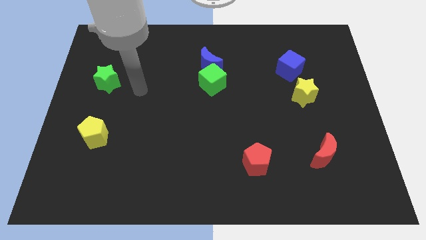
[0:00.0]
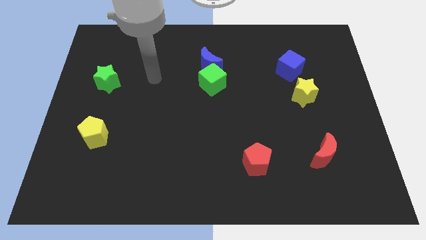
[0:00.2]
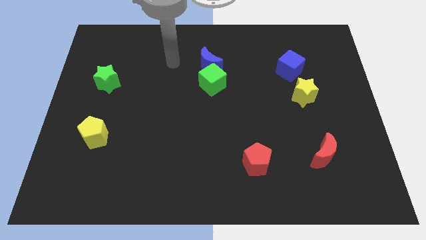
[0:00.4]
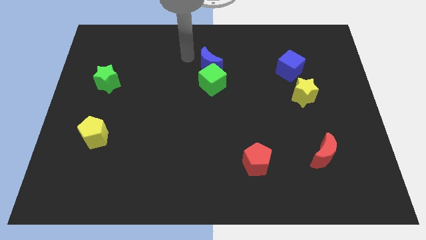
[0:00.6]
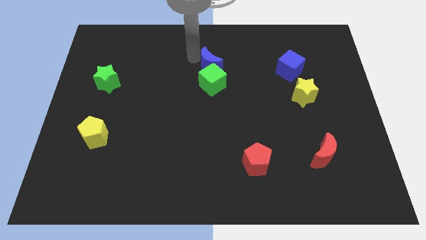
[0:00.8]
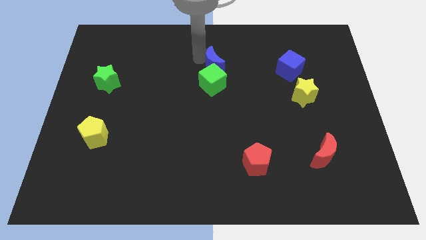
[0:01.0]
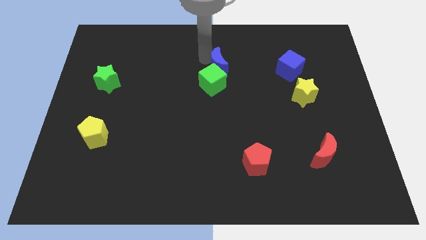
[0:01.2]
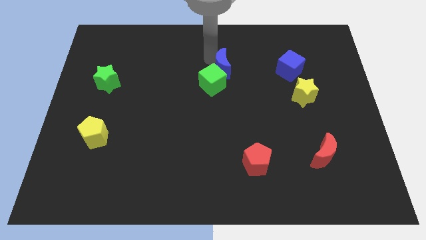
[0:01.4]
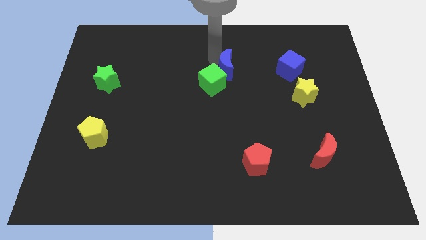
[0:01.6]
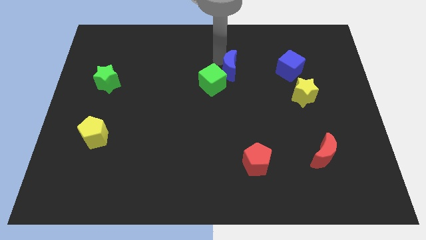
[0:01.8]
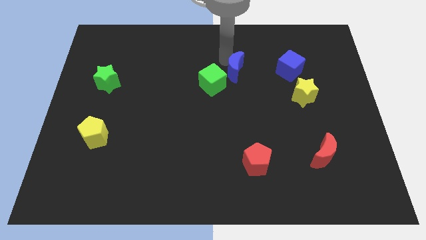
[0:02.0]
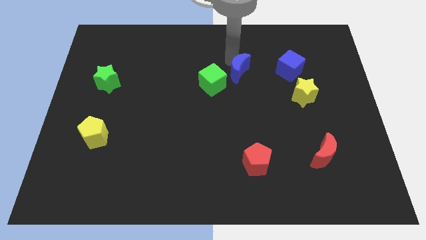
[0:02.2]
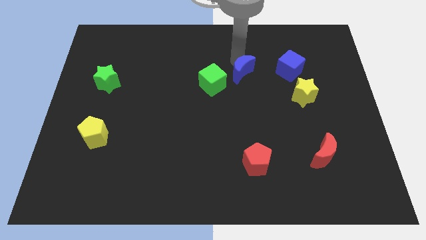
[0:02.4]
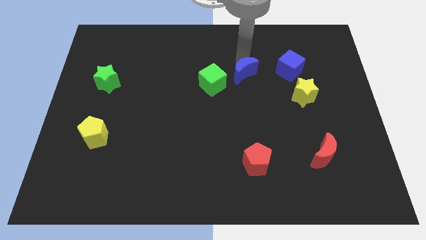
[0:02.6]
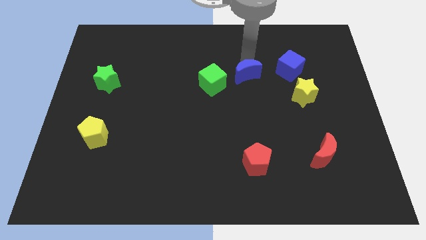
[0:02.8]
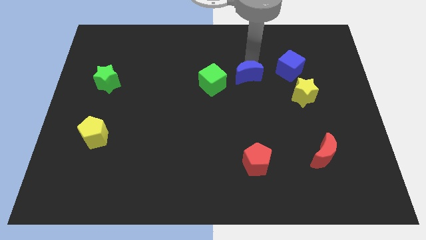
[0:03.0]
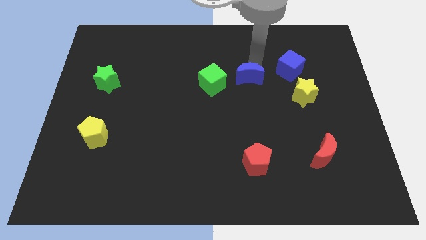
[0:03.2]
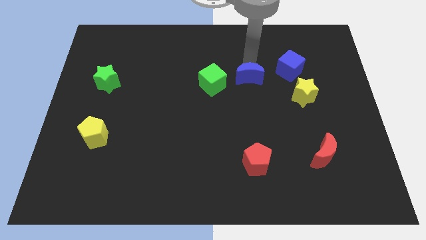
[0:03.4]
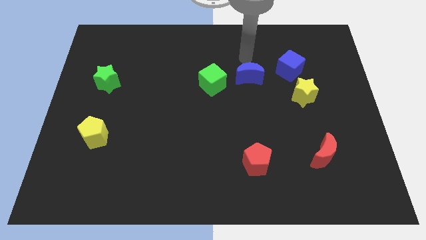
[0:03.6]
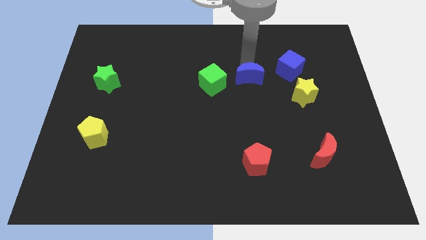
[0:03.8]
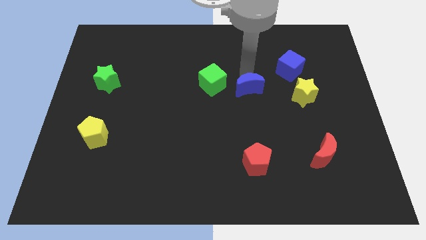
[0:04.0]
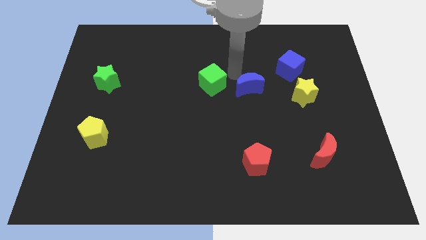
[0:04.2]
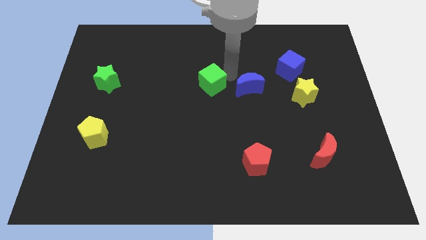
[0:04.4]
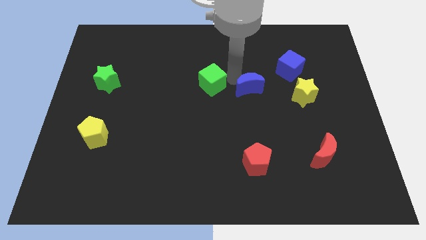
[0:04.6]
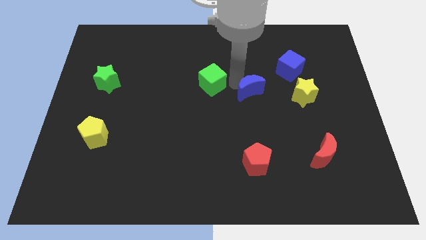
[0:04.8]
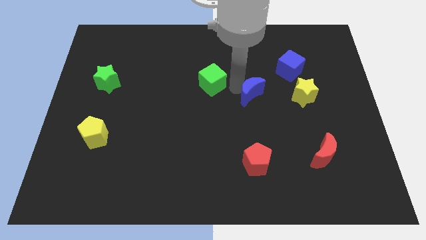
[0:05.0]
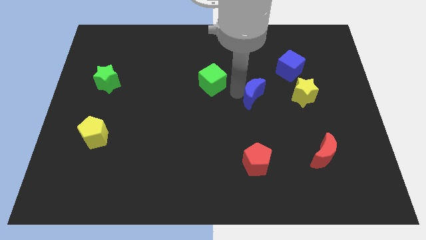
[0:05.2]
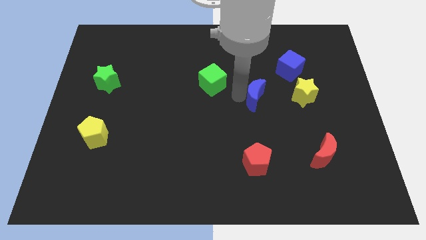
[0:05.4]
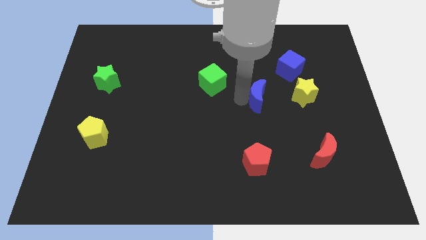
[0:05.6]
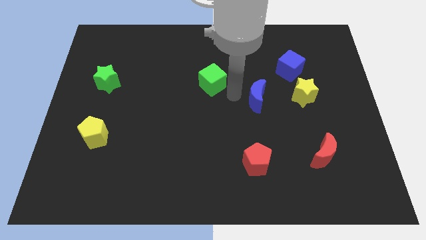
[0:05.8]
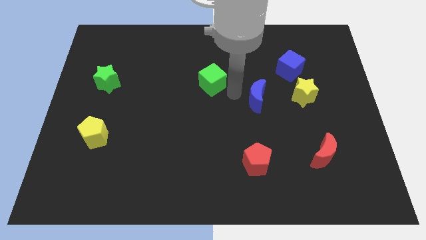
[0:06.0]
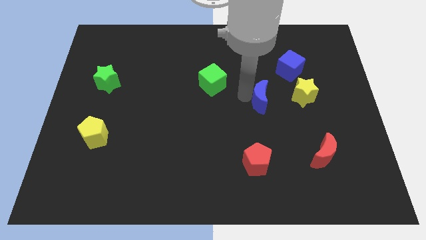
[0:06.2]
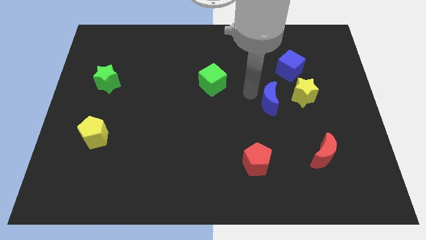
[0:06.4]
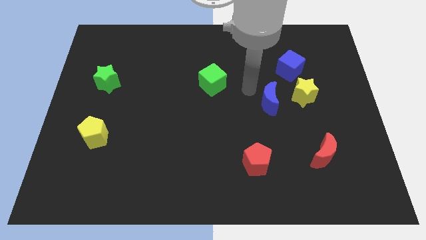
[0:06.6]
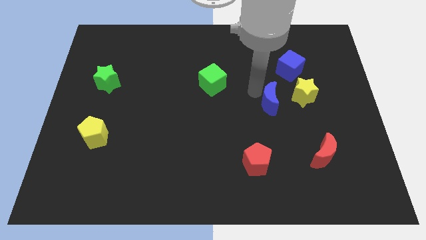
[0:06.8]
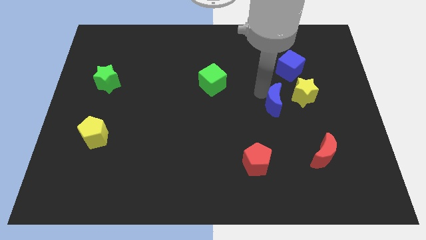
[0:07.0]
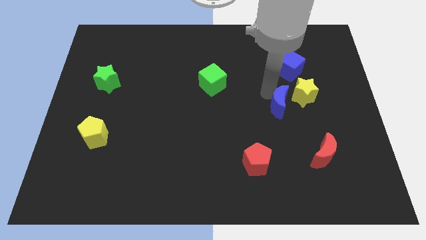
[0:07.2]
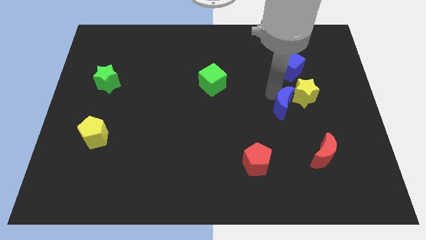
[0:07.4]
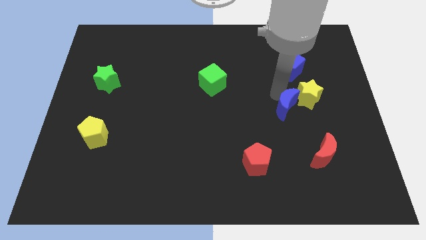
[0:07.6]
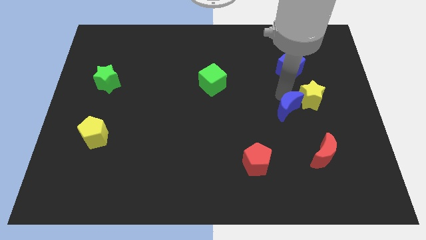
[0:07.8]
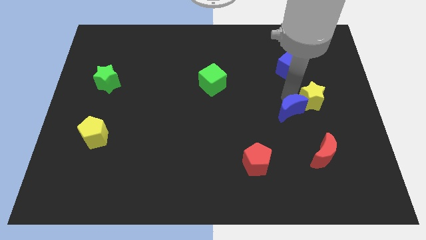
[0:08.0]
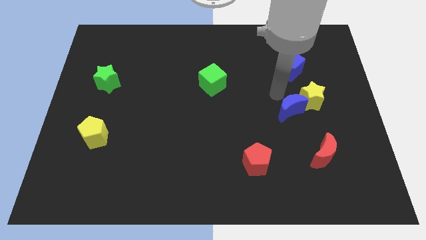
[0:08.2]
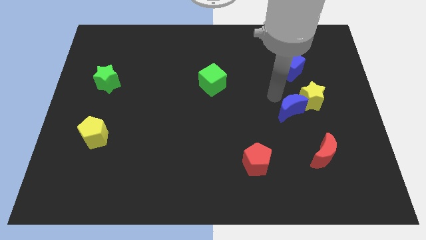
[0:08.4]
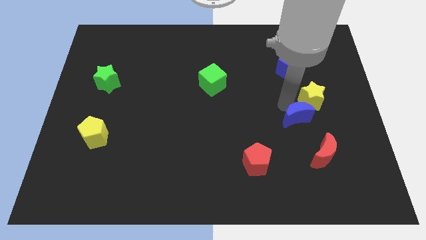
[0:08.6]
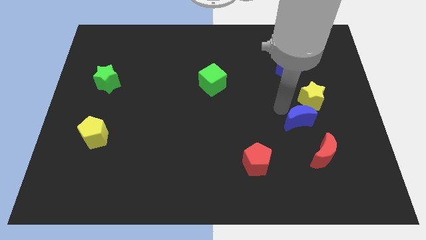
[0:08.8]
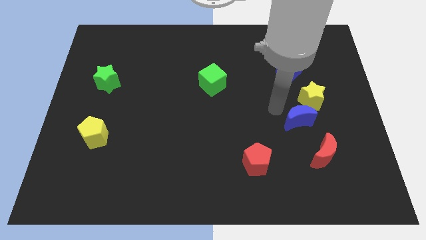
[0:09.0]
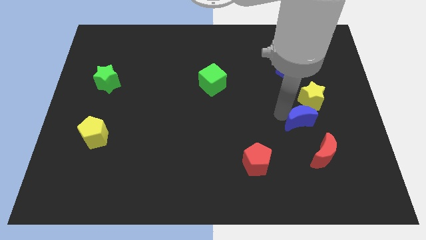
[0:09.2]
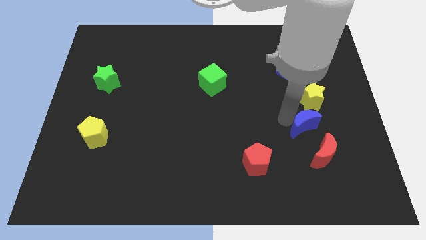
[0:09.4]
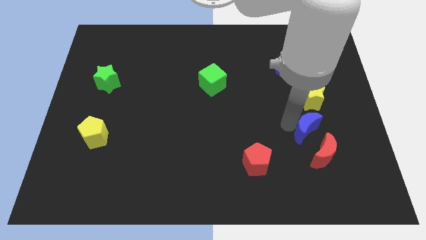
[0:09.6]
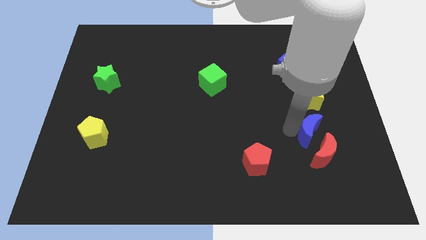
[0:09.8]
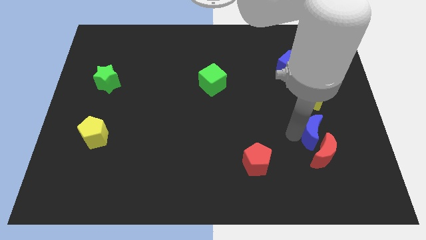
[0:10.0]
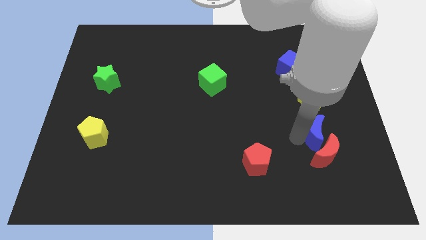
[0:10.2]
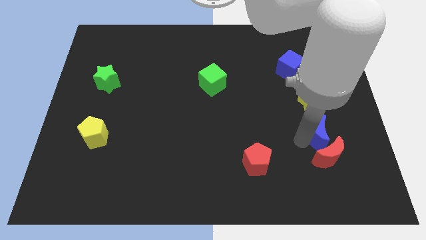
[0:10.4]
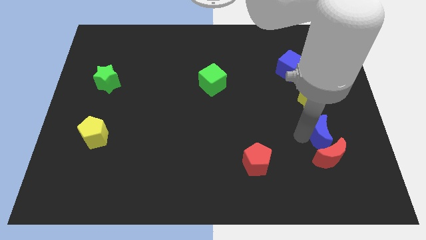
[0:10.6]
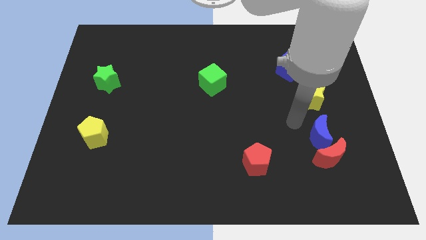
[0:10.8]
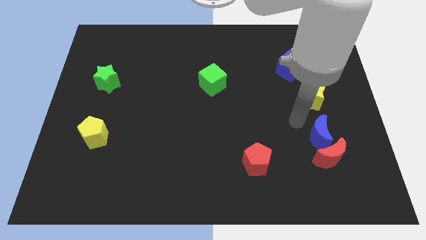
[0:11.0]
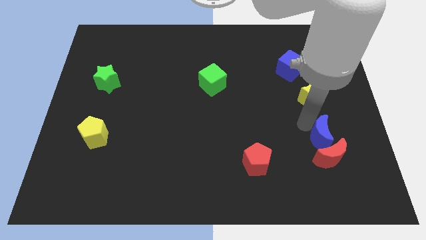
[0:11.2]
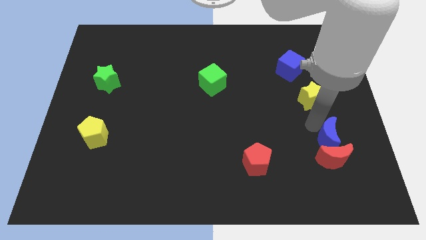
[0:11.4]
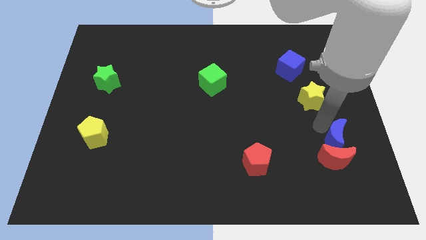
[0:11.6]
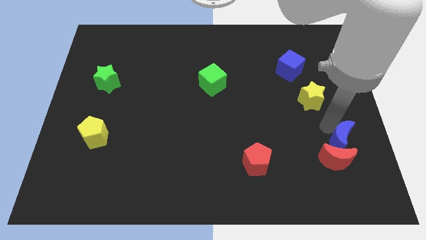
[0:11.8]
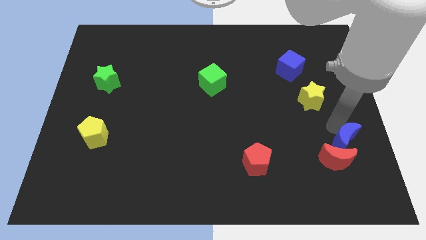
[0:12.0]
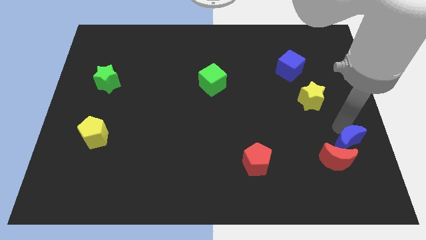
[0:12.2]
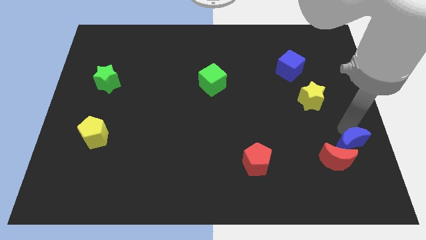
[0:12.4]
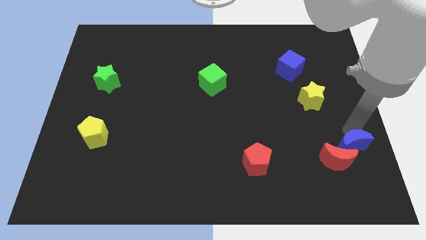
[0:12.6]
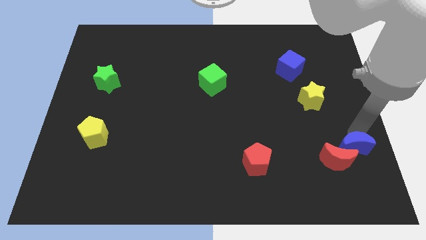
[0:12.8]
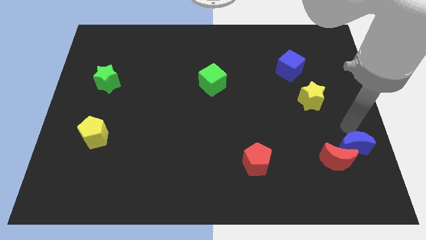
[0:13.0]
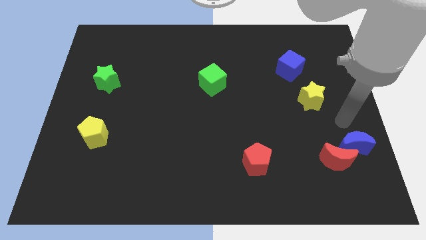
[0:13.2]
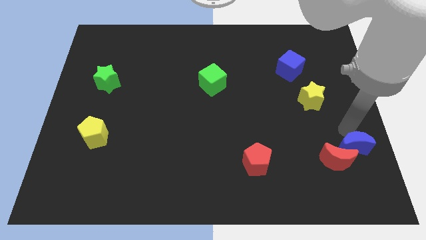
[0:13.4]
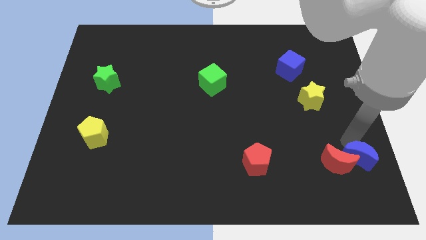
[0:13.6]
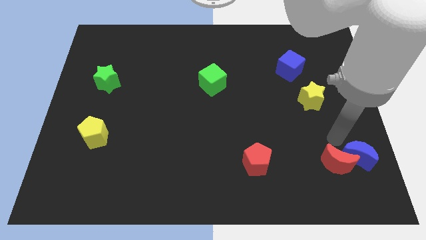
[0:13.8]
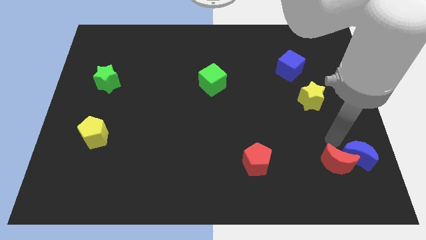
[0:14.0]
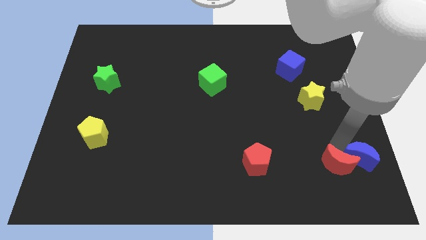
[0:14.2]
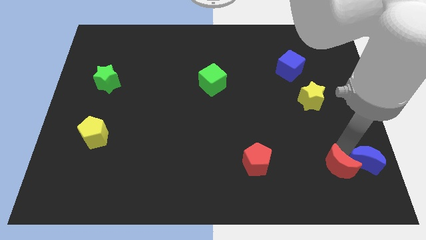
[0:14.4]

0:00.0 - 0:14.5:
push the blue moon to the bottom right
